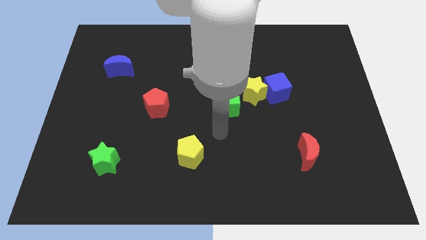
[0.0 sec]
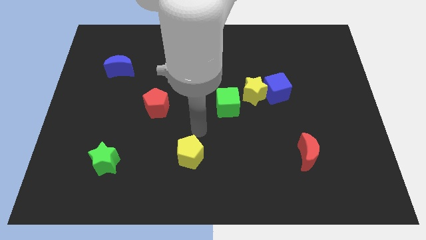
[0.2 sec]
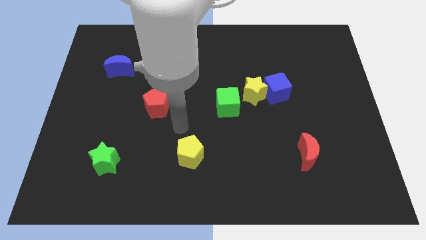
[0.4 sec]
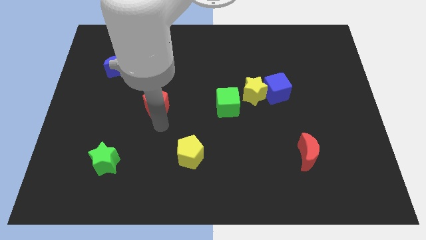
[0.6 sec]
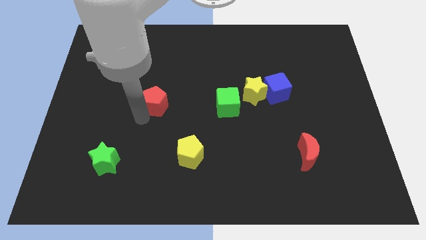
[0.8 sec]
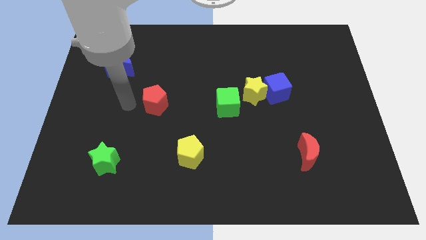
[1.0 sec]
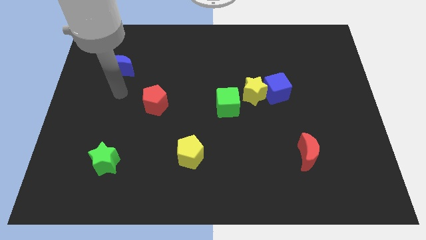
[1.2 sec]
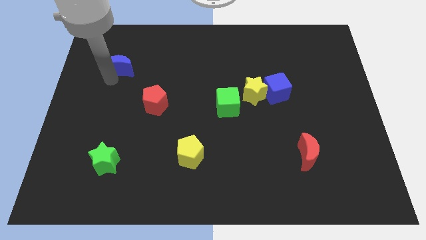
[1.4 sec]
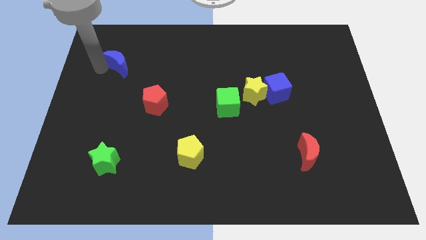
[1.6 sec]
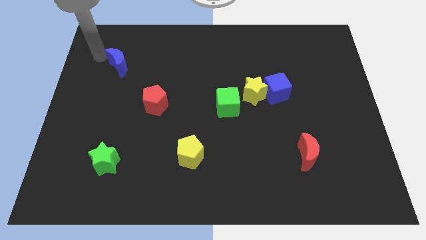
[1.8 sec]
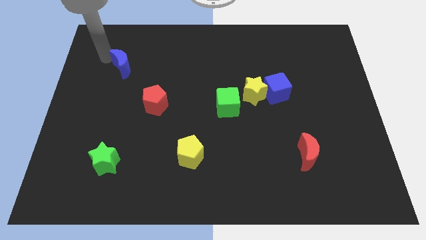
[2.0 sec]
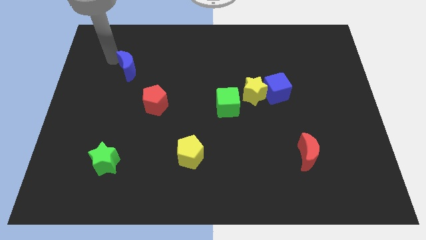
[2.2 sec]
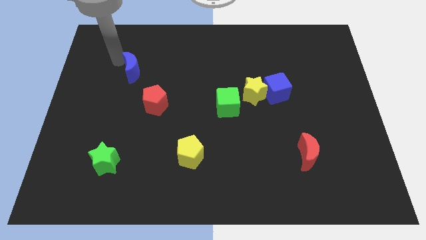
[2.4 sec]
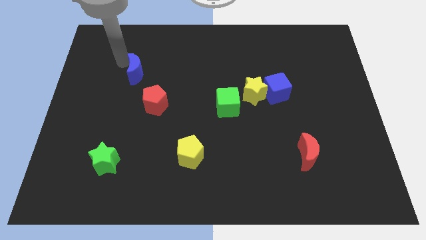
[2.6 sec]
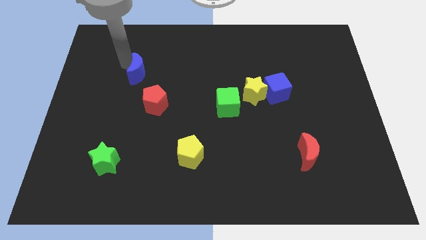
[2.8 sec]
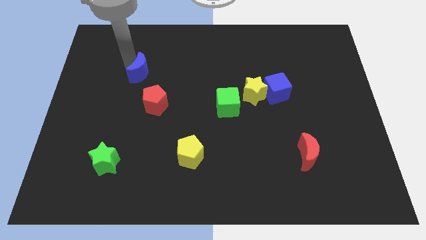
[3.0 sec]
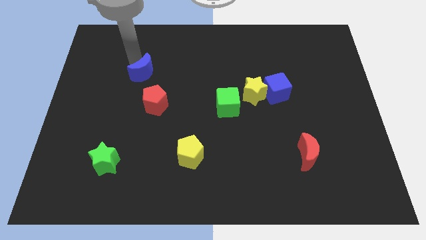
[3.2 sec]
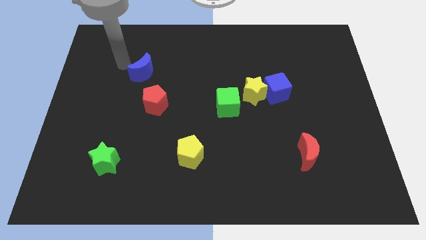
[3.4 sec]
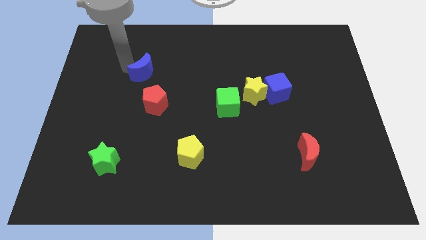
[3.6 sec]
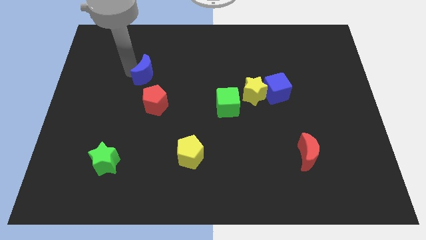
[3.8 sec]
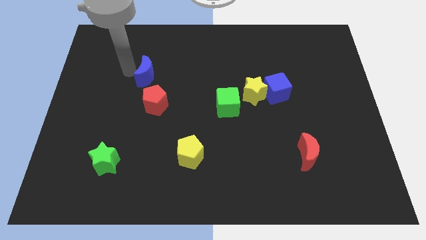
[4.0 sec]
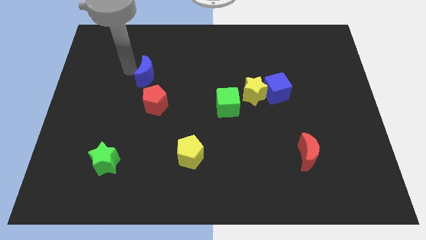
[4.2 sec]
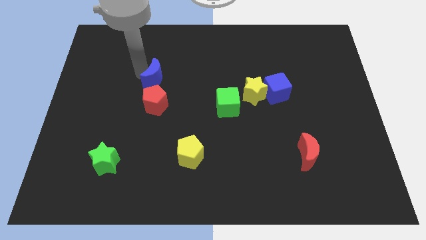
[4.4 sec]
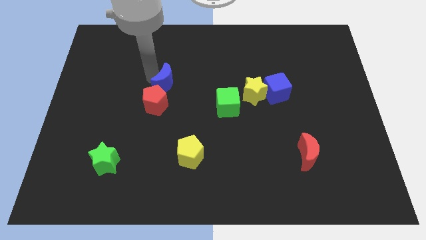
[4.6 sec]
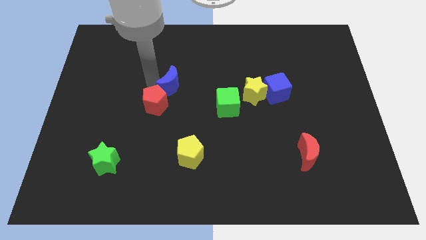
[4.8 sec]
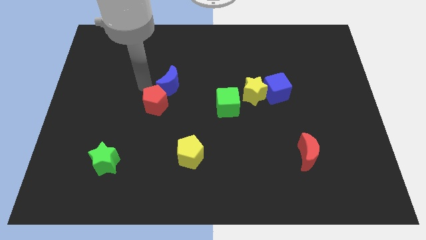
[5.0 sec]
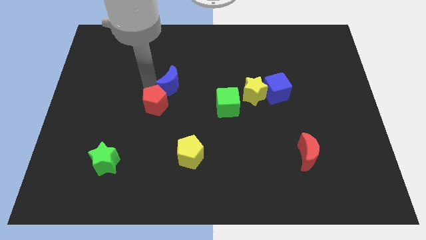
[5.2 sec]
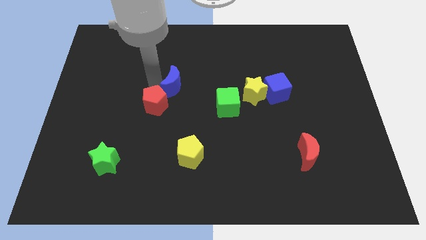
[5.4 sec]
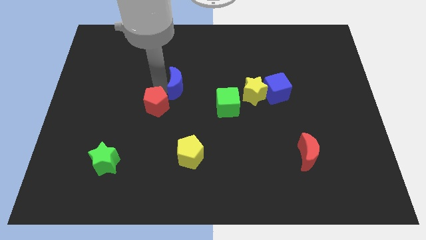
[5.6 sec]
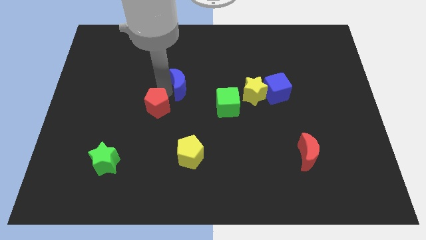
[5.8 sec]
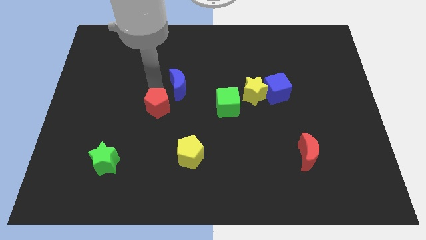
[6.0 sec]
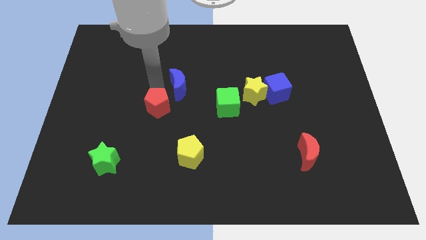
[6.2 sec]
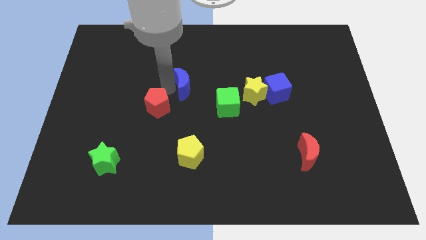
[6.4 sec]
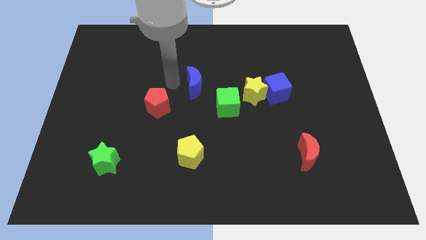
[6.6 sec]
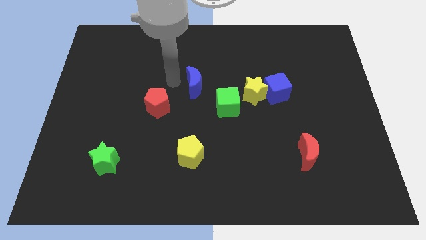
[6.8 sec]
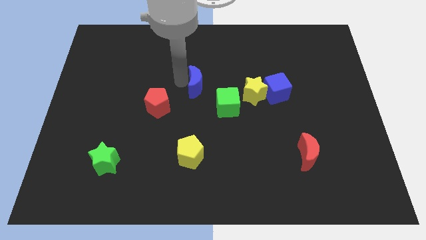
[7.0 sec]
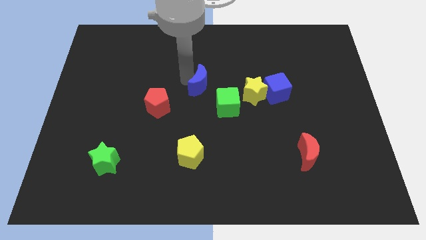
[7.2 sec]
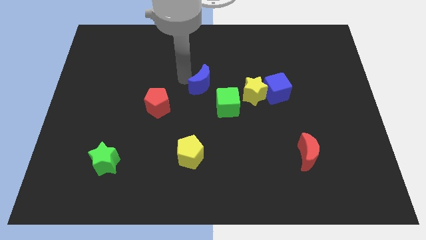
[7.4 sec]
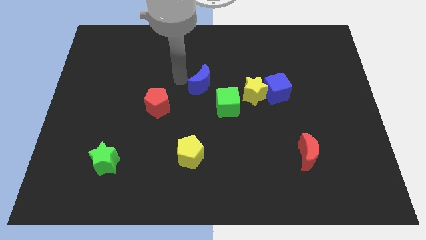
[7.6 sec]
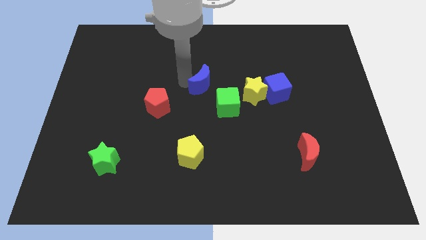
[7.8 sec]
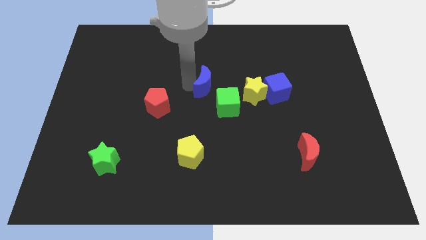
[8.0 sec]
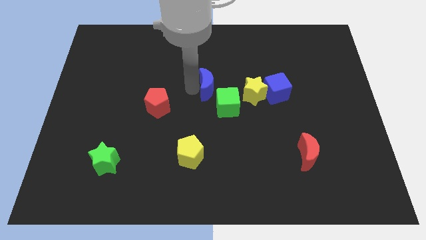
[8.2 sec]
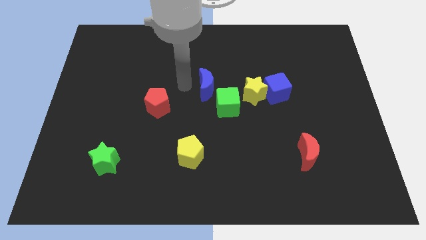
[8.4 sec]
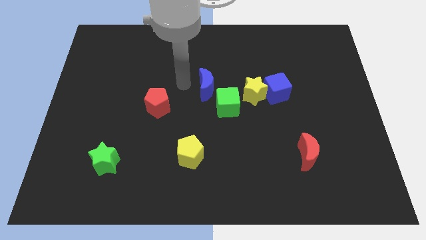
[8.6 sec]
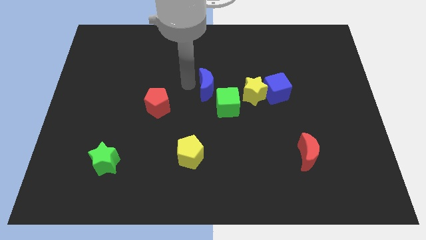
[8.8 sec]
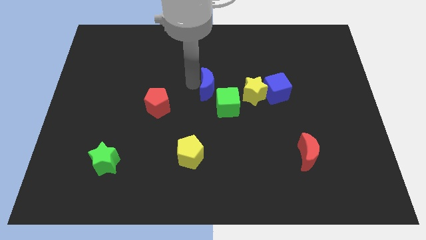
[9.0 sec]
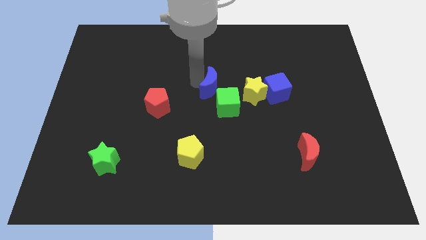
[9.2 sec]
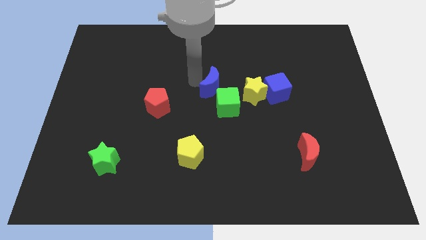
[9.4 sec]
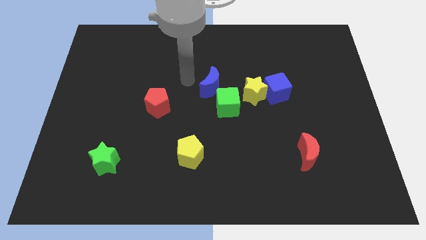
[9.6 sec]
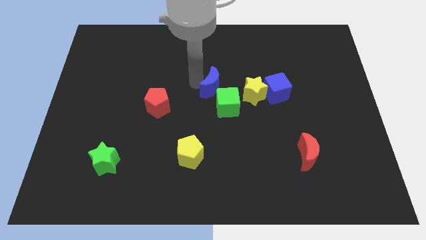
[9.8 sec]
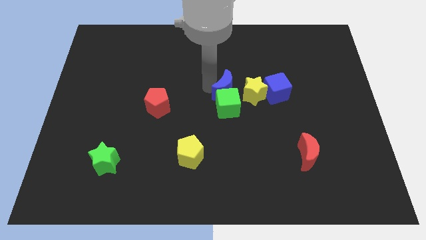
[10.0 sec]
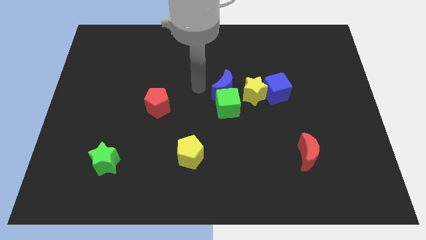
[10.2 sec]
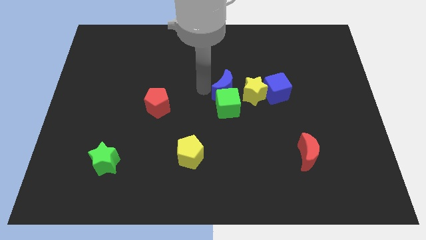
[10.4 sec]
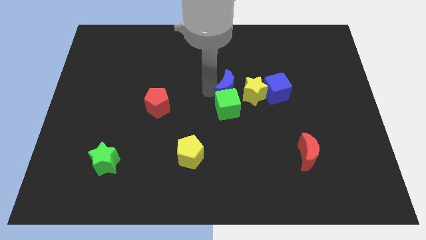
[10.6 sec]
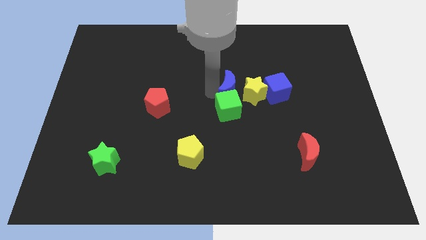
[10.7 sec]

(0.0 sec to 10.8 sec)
put the blue moon towards the yellow star

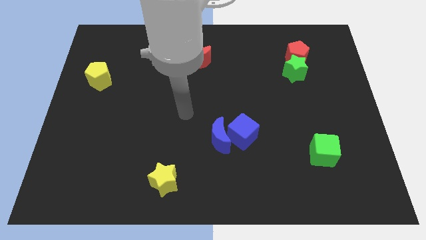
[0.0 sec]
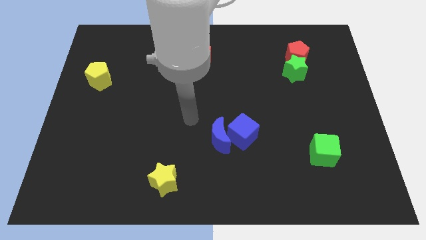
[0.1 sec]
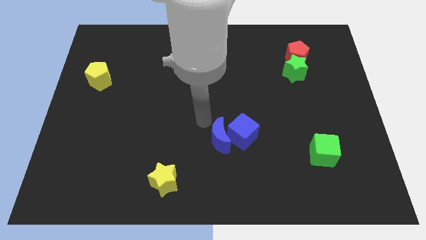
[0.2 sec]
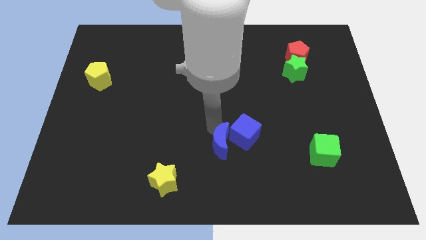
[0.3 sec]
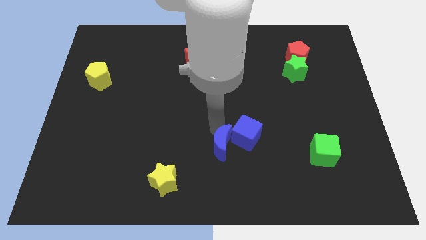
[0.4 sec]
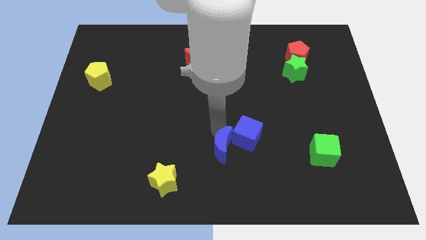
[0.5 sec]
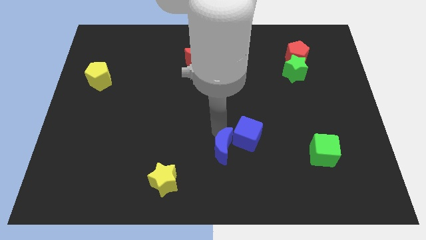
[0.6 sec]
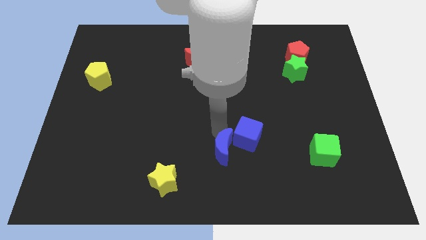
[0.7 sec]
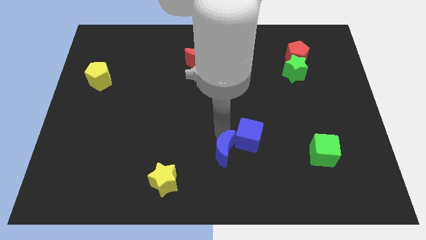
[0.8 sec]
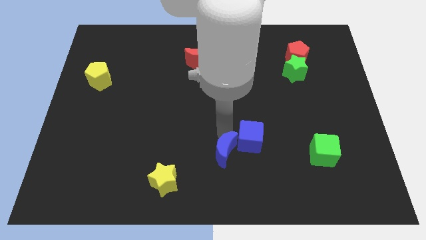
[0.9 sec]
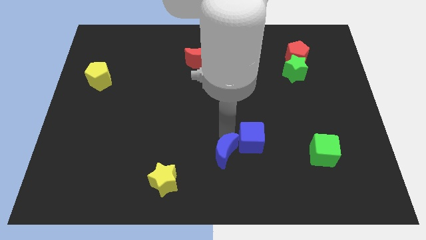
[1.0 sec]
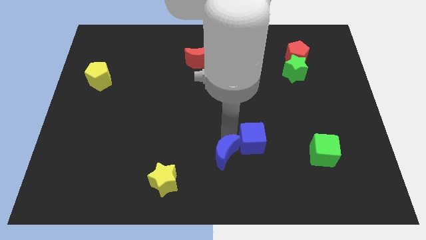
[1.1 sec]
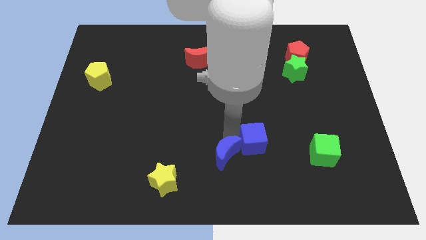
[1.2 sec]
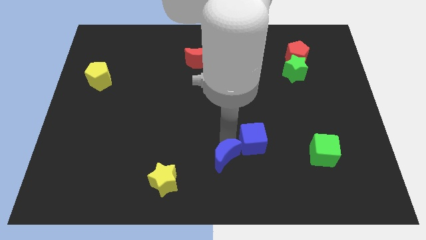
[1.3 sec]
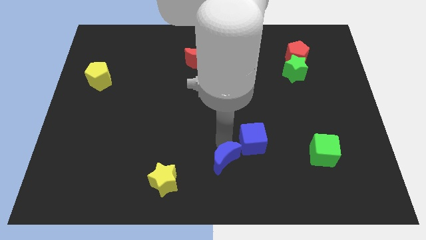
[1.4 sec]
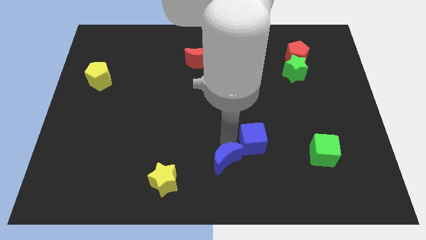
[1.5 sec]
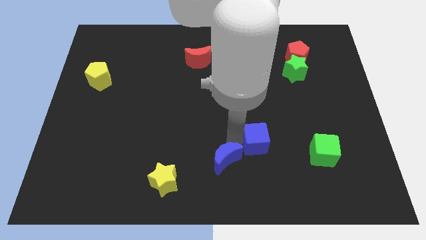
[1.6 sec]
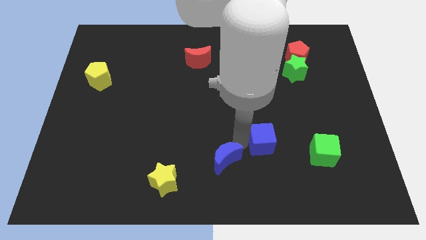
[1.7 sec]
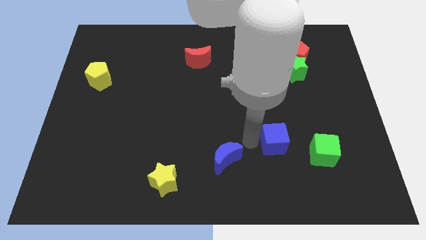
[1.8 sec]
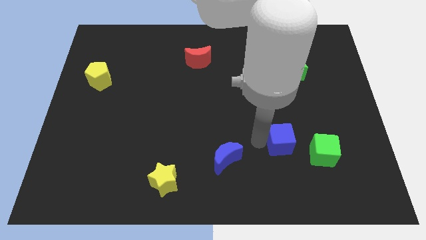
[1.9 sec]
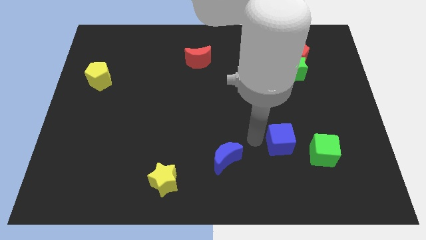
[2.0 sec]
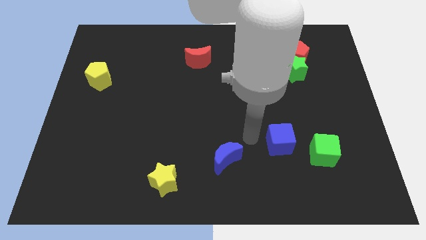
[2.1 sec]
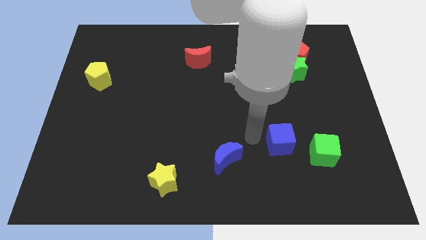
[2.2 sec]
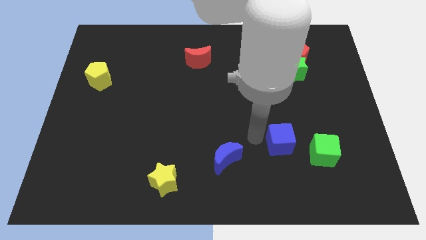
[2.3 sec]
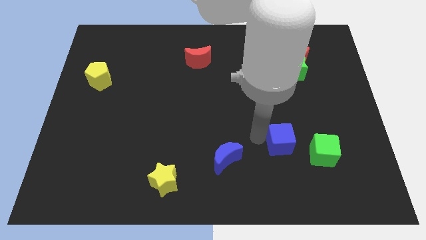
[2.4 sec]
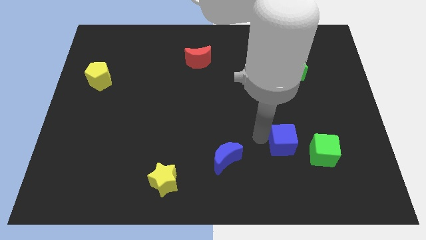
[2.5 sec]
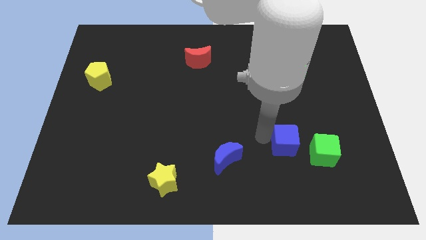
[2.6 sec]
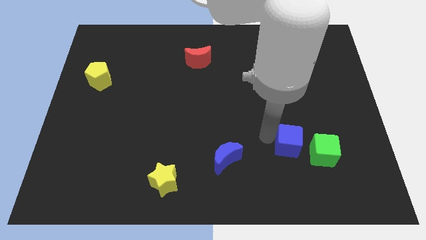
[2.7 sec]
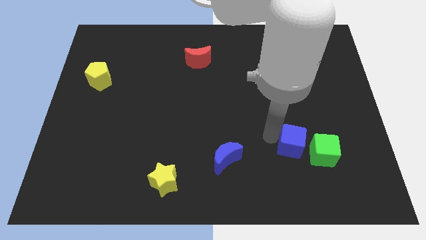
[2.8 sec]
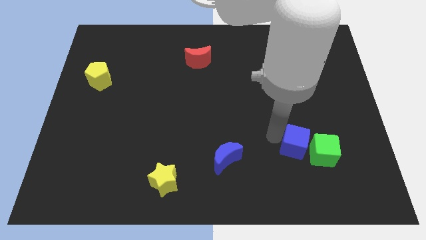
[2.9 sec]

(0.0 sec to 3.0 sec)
push the blue cube close to the green cube
